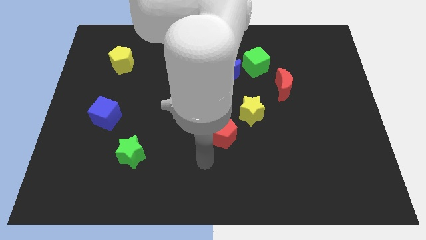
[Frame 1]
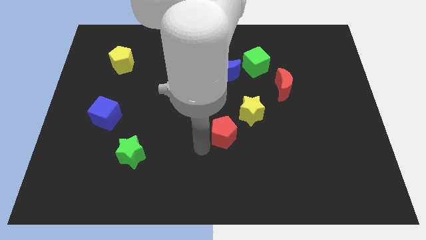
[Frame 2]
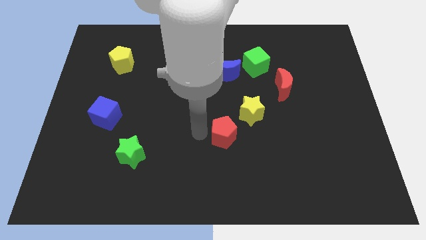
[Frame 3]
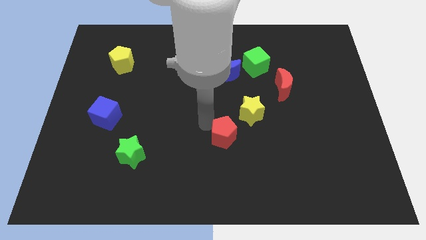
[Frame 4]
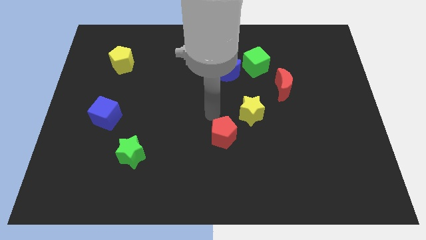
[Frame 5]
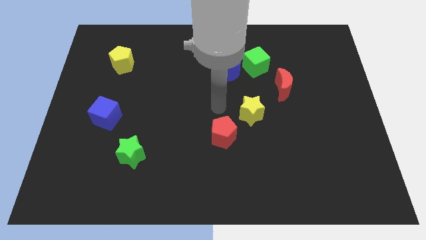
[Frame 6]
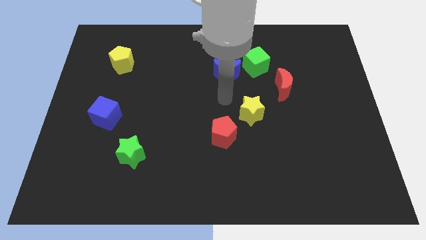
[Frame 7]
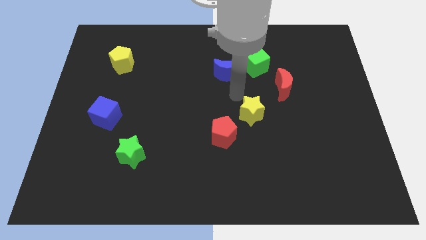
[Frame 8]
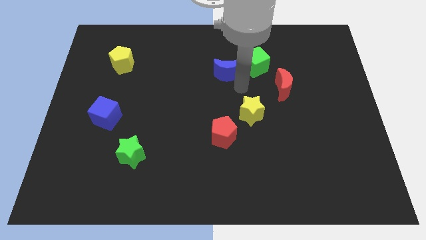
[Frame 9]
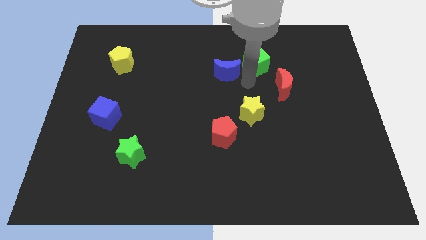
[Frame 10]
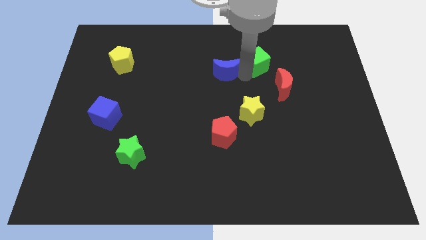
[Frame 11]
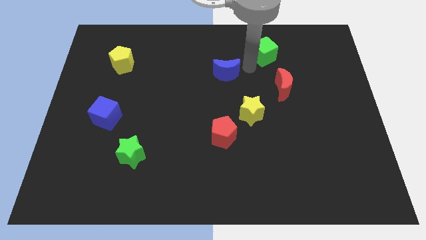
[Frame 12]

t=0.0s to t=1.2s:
separate the blue moon from the green cube

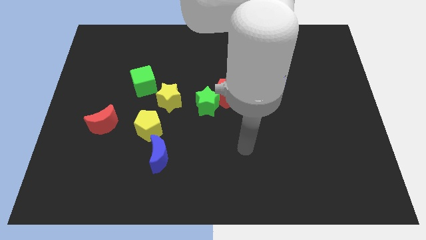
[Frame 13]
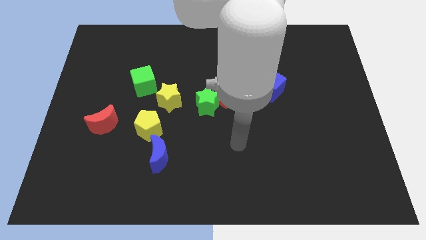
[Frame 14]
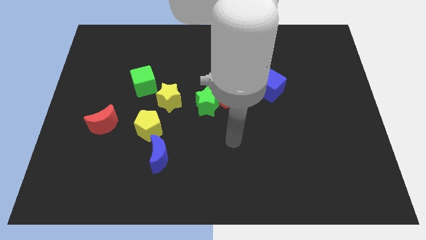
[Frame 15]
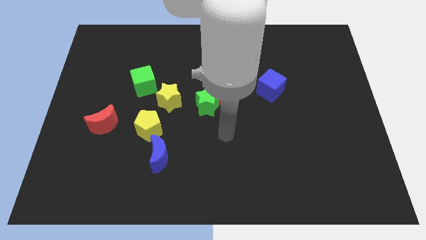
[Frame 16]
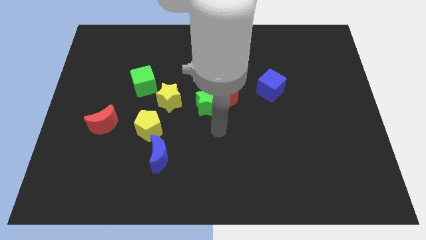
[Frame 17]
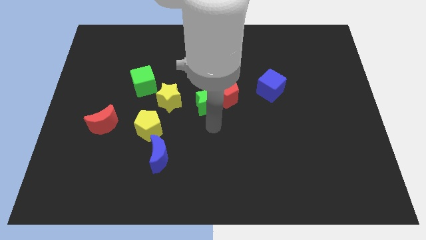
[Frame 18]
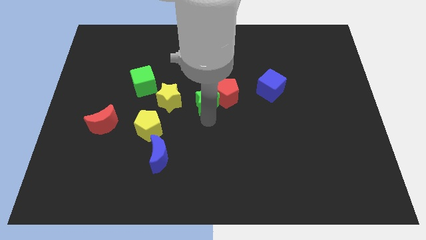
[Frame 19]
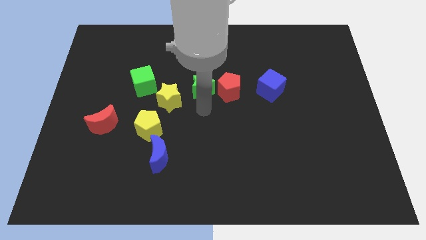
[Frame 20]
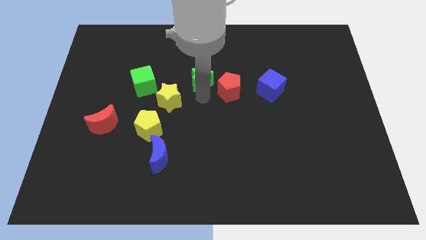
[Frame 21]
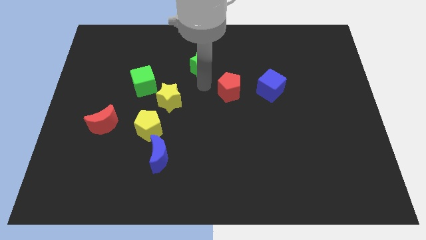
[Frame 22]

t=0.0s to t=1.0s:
pull the red pentagon apart from the green star

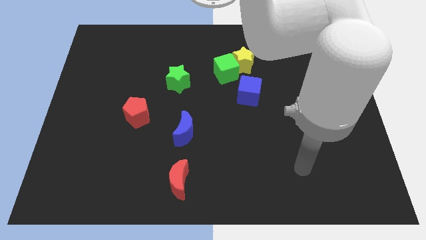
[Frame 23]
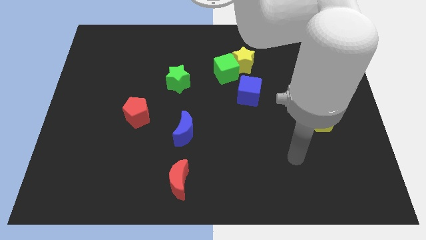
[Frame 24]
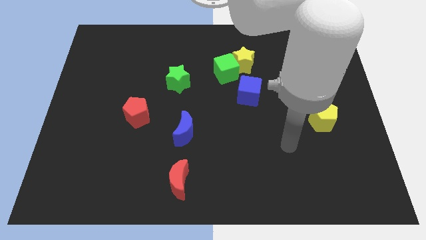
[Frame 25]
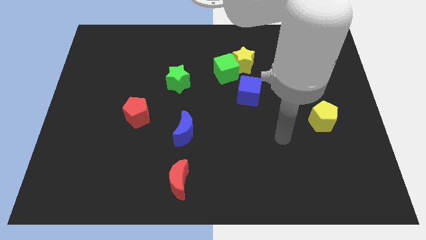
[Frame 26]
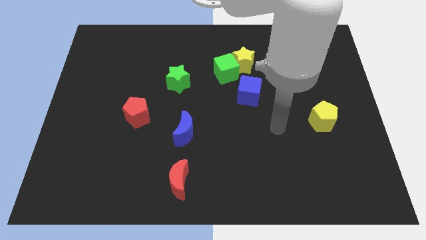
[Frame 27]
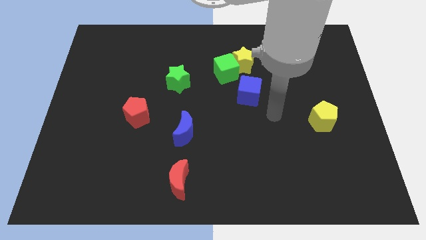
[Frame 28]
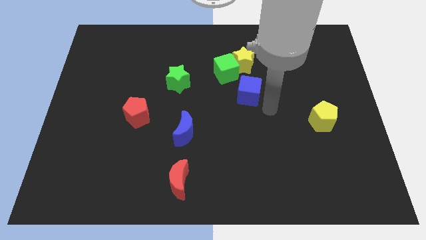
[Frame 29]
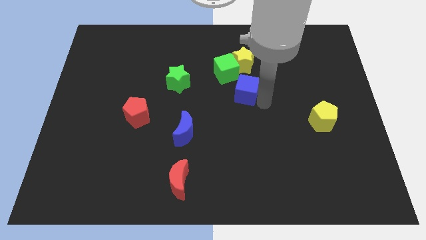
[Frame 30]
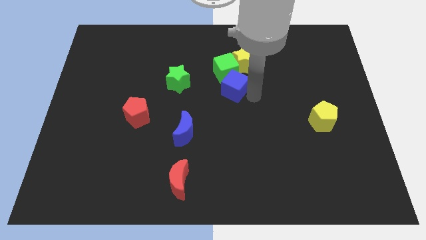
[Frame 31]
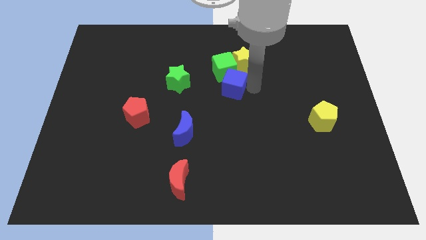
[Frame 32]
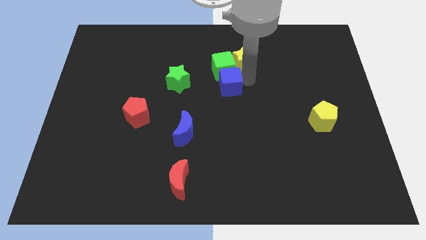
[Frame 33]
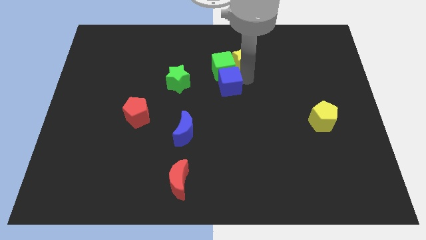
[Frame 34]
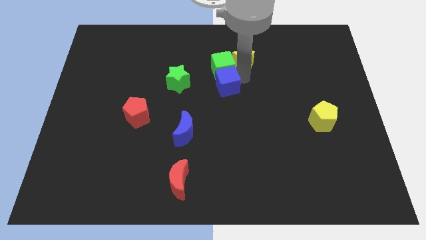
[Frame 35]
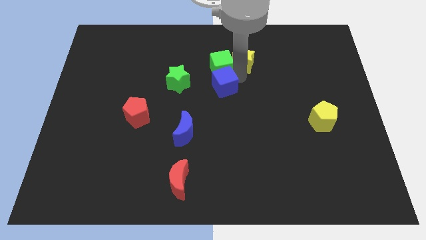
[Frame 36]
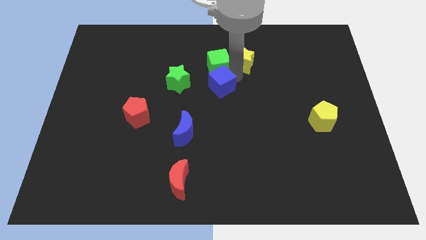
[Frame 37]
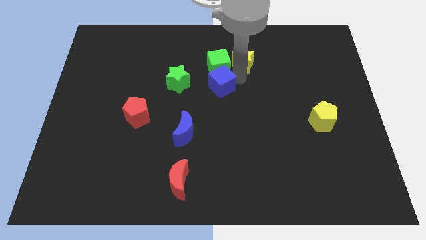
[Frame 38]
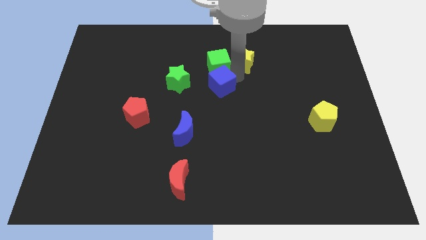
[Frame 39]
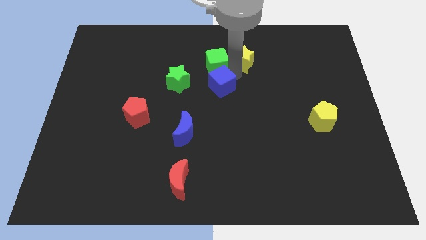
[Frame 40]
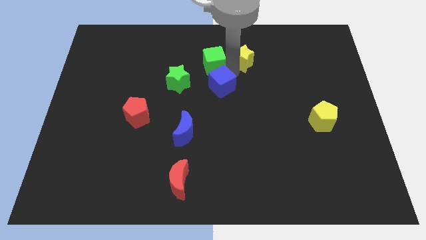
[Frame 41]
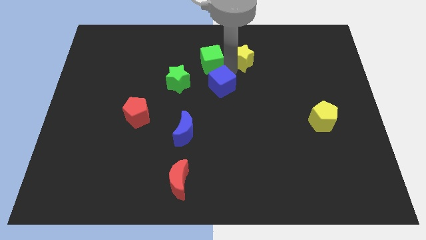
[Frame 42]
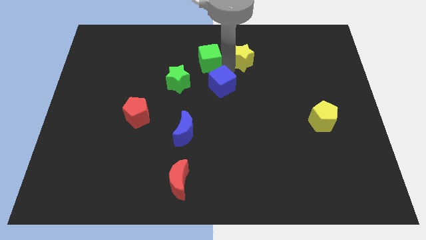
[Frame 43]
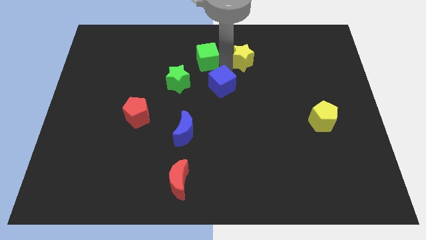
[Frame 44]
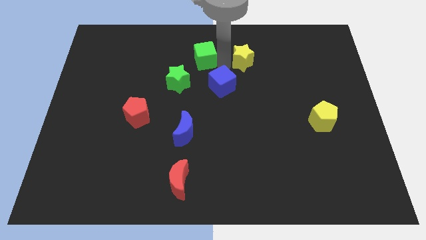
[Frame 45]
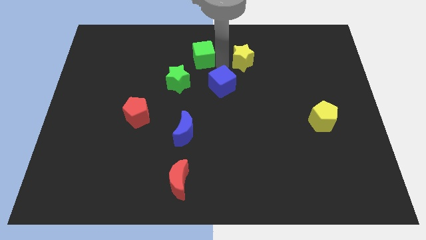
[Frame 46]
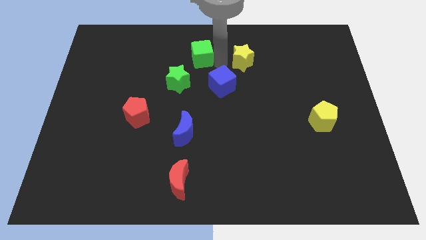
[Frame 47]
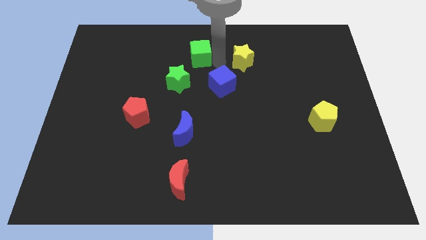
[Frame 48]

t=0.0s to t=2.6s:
pull the green cube apart from the yellow star and blue cube

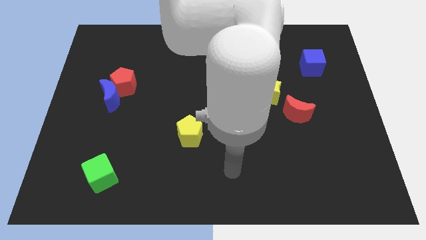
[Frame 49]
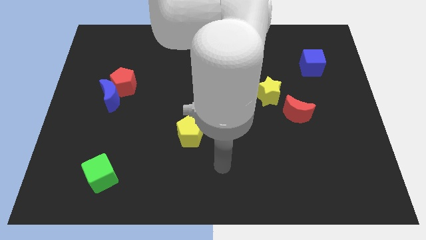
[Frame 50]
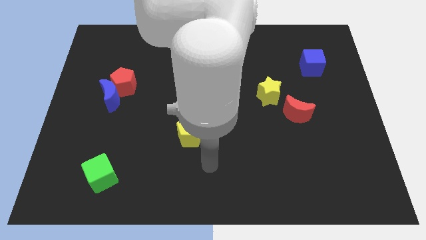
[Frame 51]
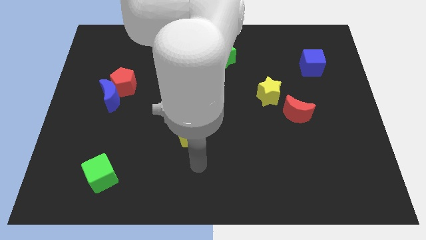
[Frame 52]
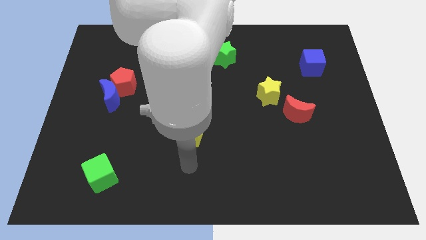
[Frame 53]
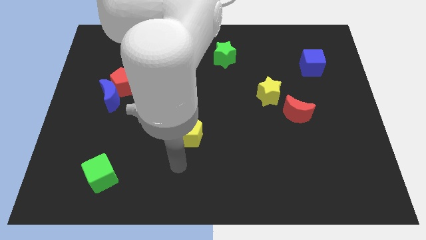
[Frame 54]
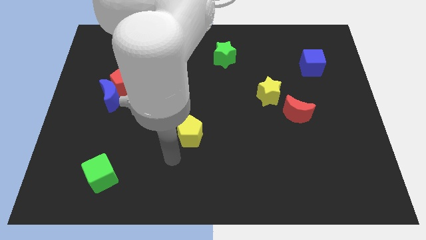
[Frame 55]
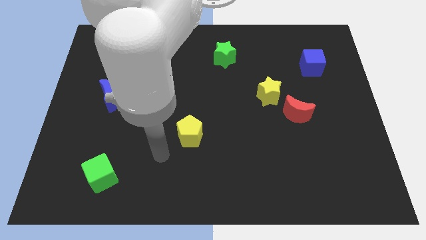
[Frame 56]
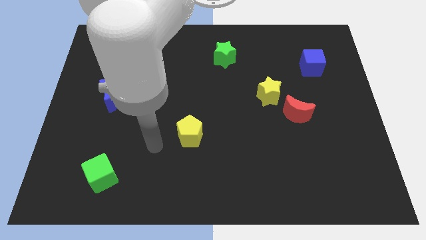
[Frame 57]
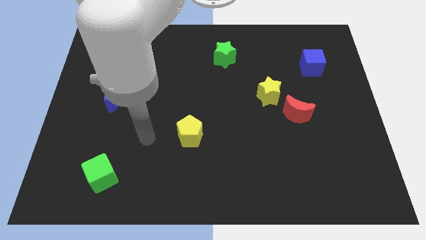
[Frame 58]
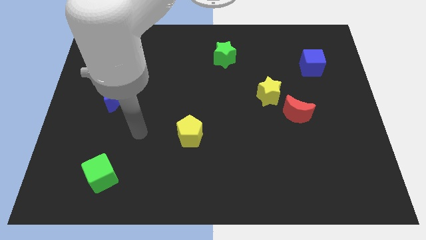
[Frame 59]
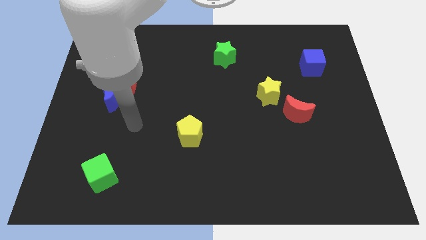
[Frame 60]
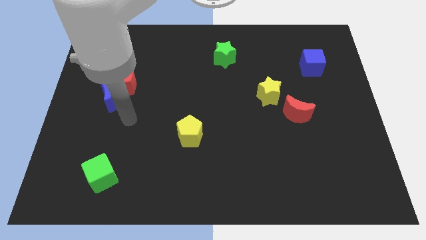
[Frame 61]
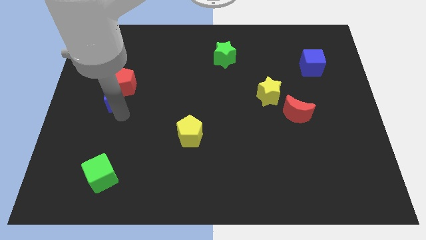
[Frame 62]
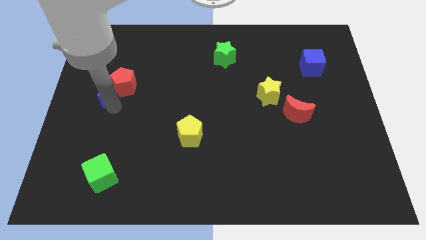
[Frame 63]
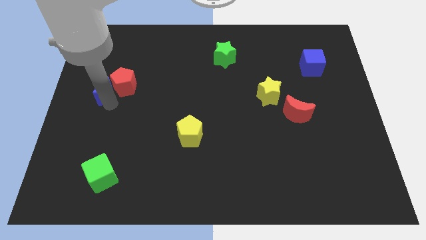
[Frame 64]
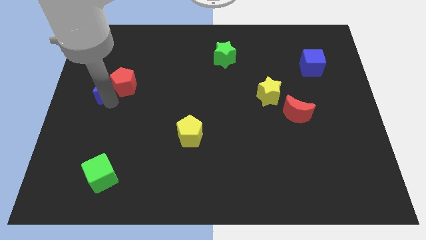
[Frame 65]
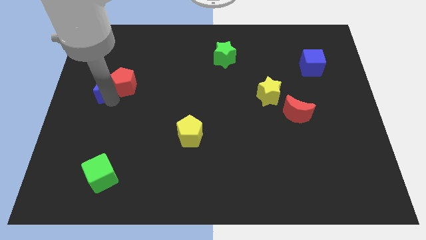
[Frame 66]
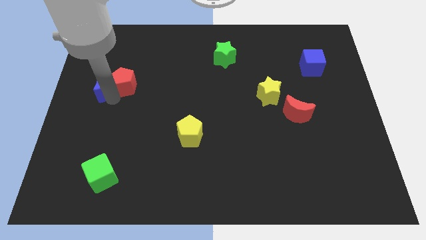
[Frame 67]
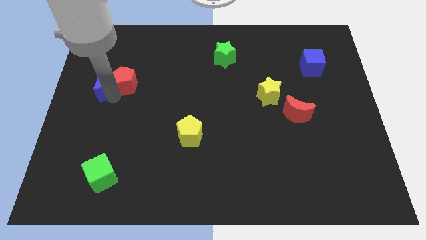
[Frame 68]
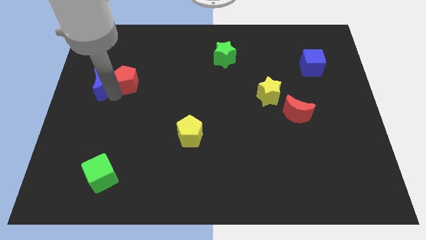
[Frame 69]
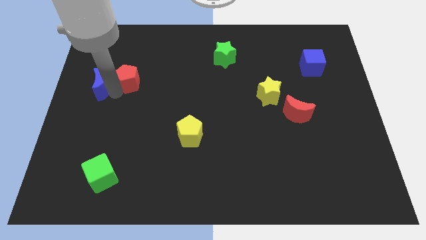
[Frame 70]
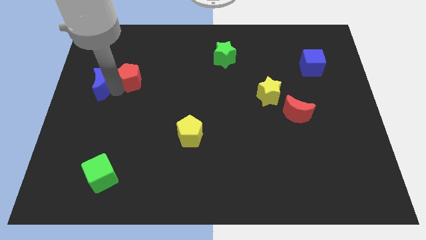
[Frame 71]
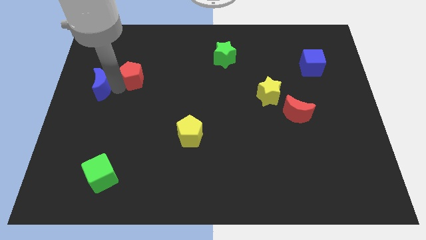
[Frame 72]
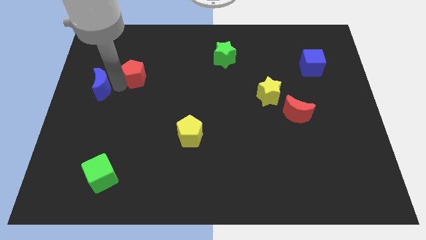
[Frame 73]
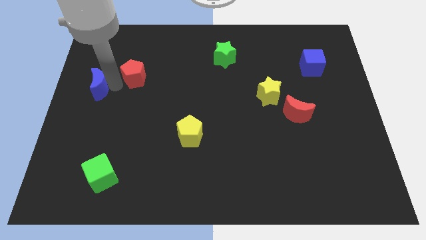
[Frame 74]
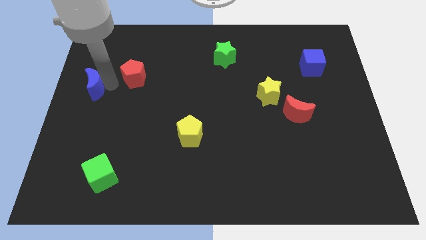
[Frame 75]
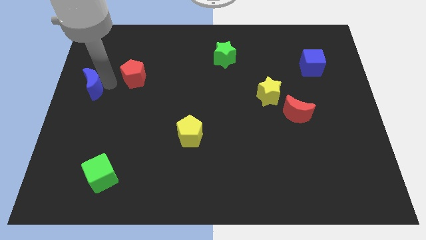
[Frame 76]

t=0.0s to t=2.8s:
move the red pentagon away from the blue moon

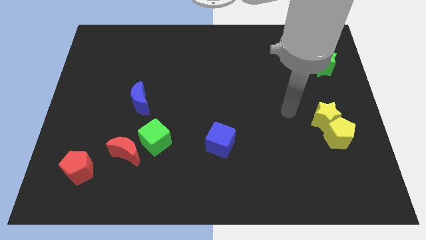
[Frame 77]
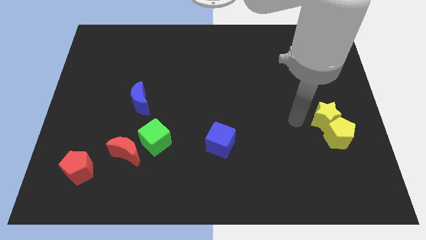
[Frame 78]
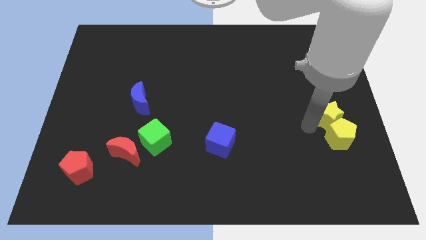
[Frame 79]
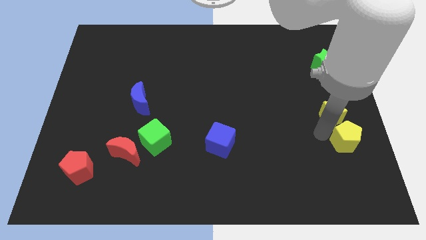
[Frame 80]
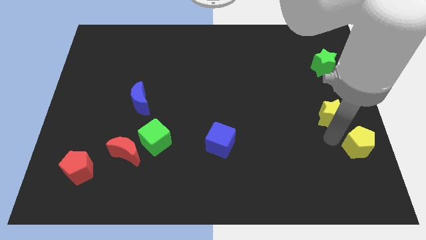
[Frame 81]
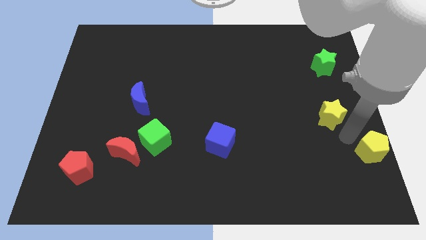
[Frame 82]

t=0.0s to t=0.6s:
pull the yellow star apart from the yellow pentagon

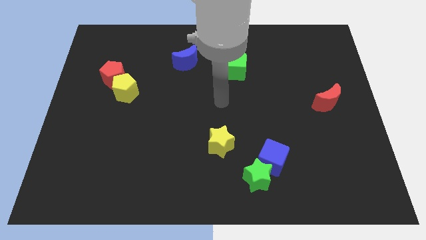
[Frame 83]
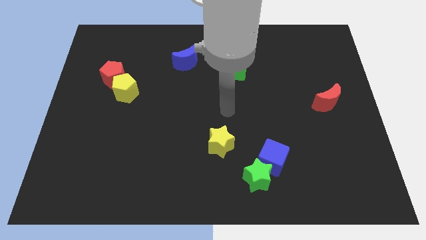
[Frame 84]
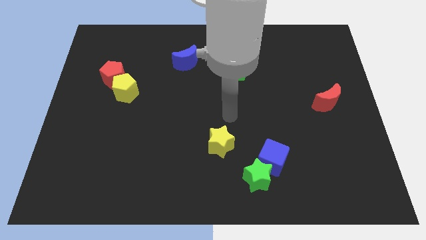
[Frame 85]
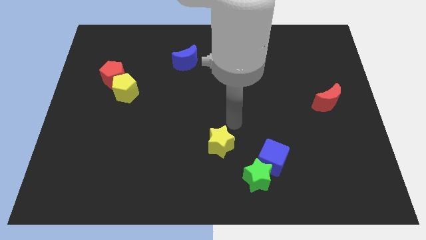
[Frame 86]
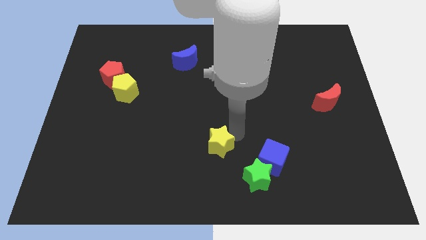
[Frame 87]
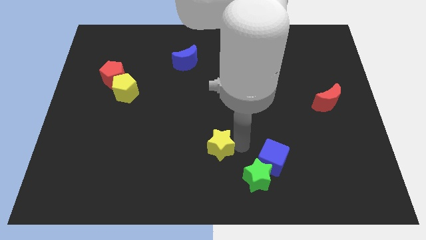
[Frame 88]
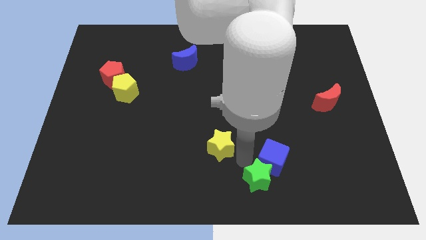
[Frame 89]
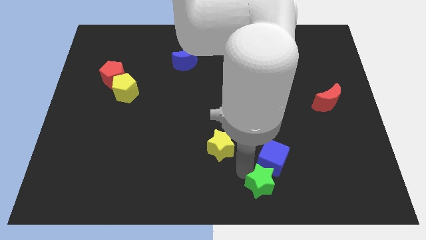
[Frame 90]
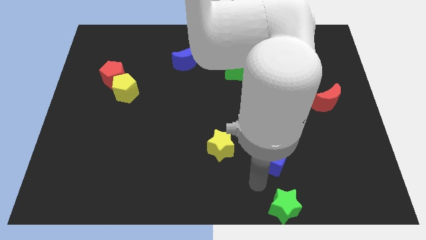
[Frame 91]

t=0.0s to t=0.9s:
pull the blue cube apart from the green star
